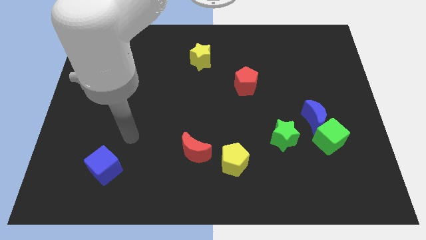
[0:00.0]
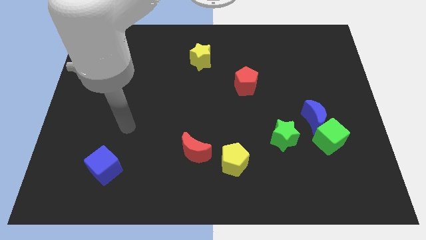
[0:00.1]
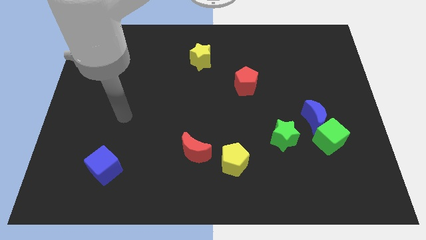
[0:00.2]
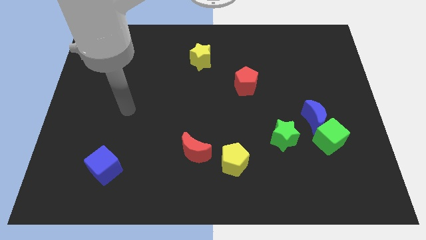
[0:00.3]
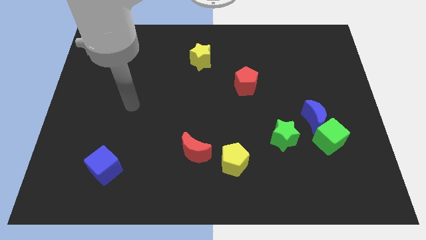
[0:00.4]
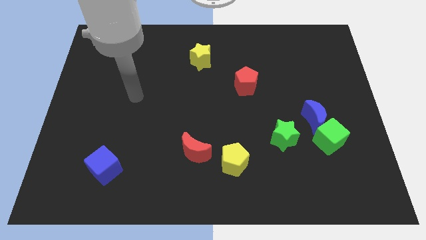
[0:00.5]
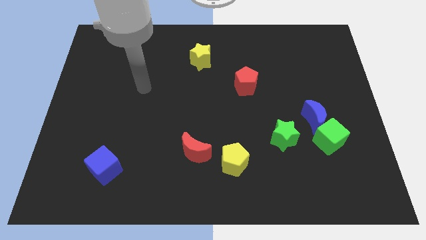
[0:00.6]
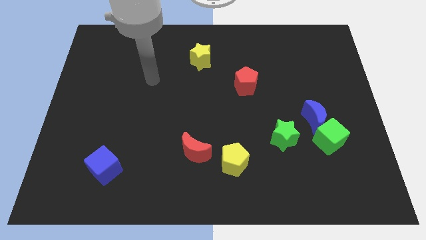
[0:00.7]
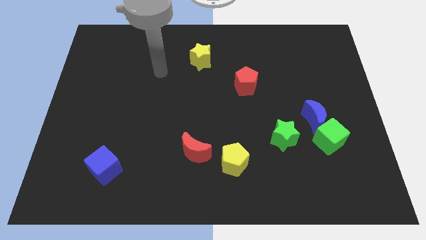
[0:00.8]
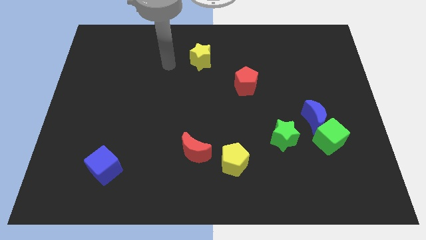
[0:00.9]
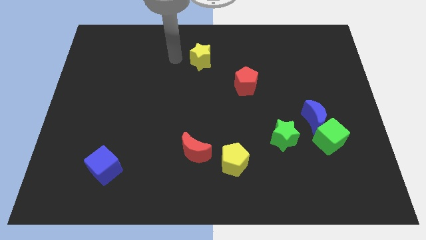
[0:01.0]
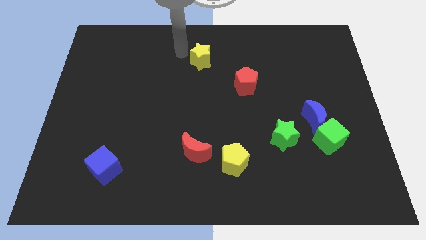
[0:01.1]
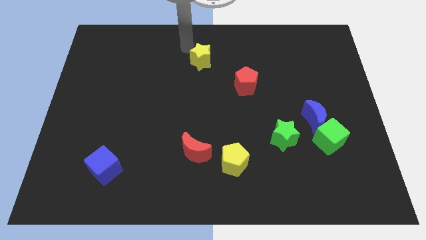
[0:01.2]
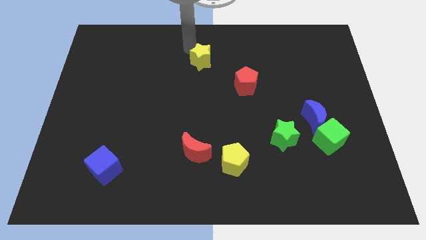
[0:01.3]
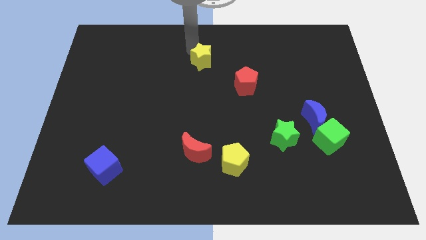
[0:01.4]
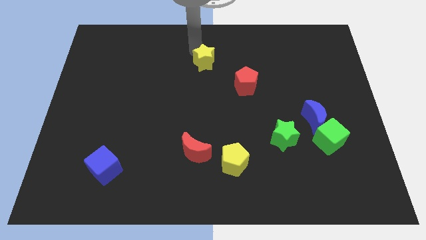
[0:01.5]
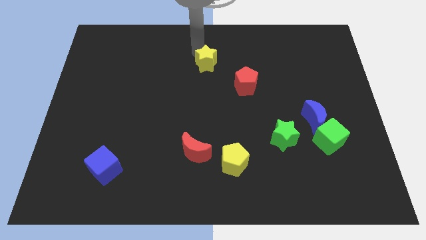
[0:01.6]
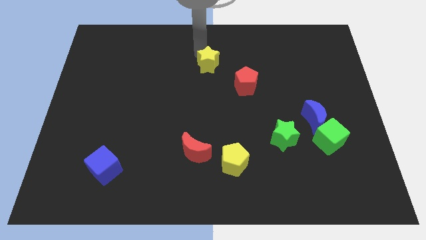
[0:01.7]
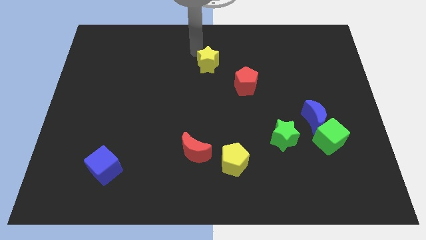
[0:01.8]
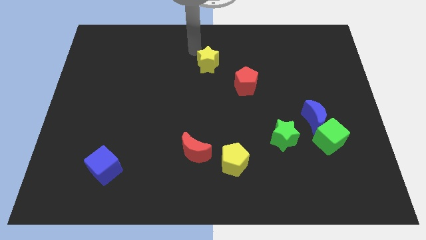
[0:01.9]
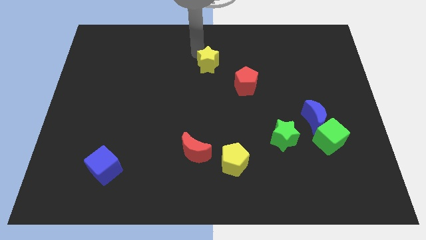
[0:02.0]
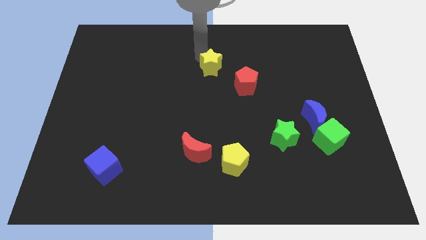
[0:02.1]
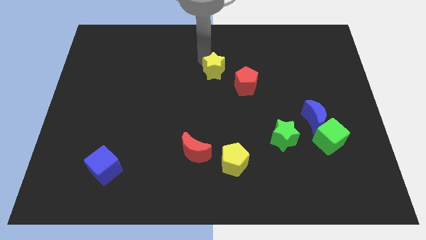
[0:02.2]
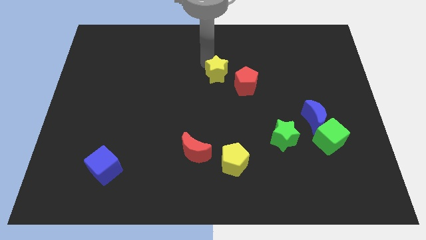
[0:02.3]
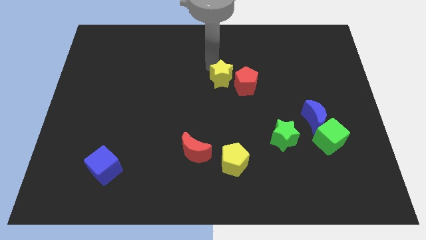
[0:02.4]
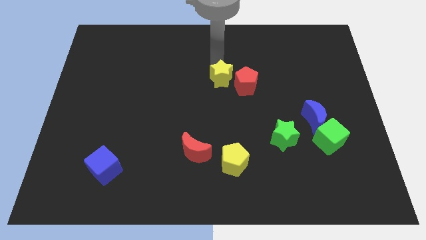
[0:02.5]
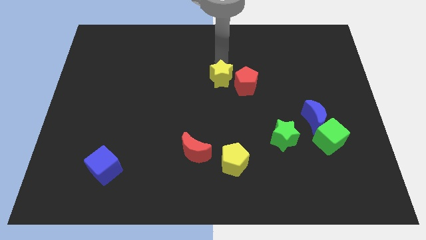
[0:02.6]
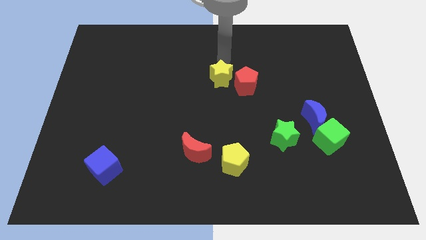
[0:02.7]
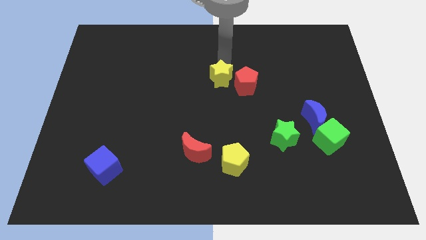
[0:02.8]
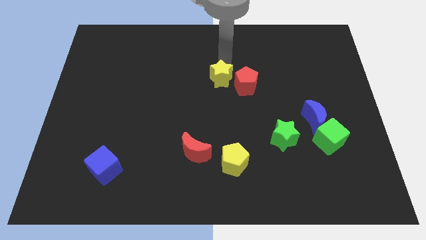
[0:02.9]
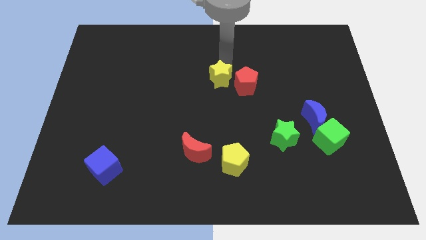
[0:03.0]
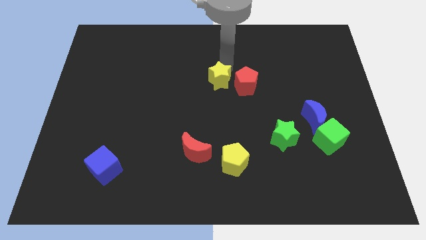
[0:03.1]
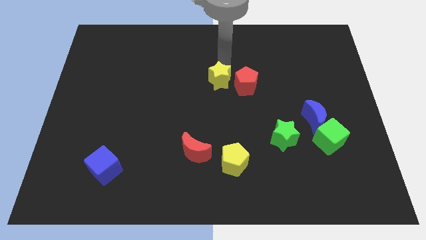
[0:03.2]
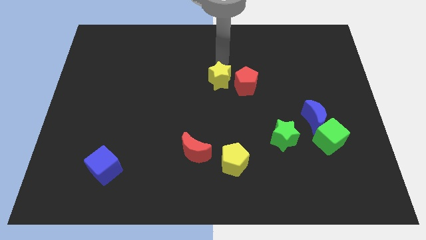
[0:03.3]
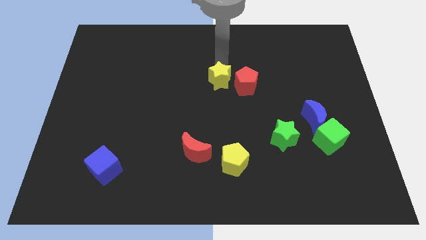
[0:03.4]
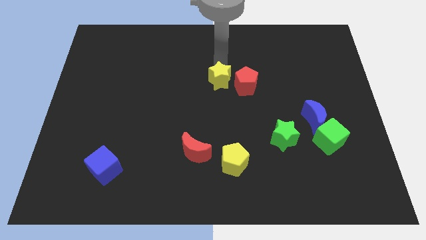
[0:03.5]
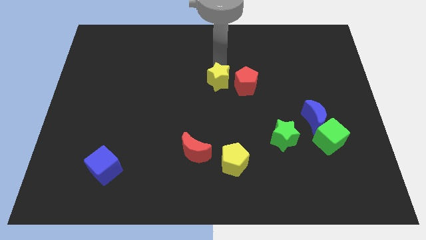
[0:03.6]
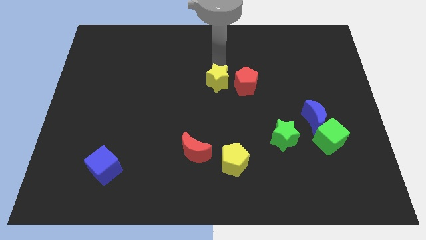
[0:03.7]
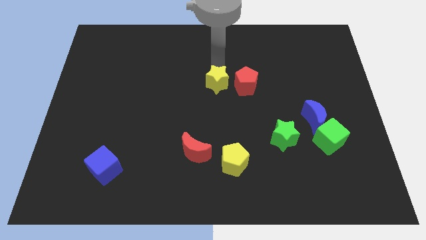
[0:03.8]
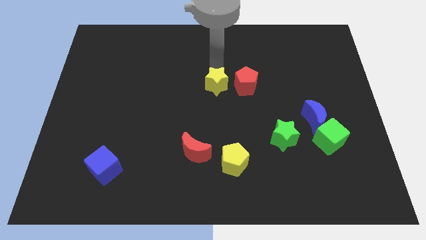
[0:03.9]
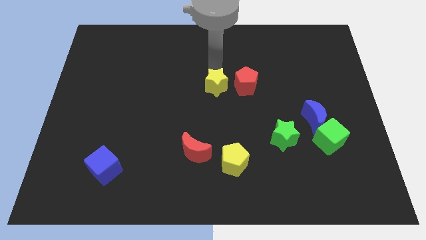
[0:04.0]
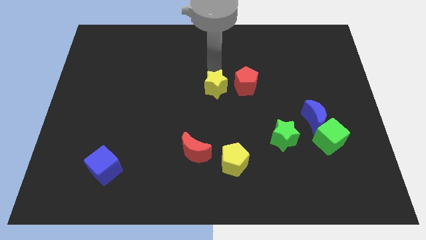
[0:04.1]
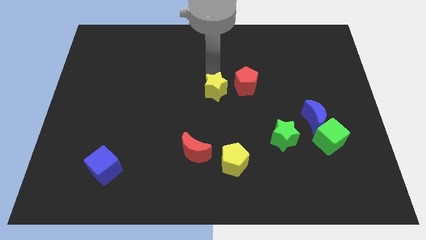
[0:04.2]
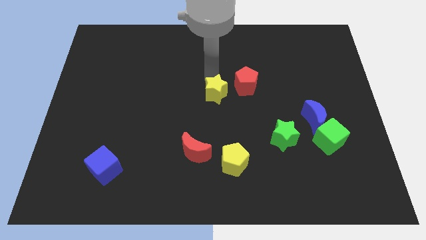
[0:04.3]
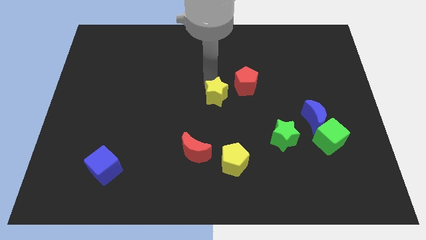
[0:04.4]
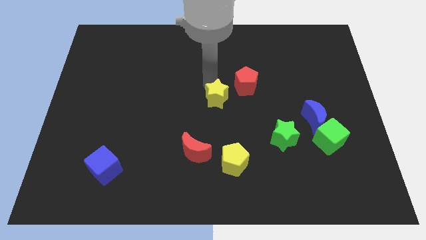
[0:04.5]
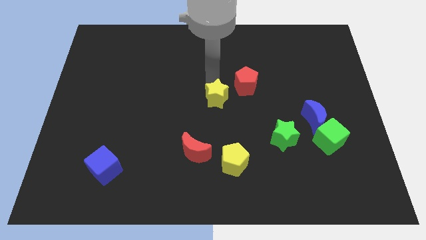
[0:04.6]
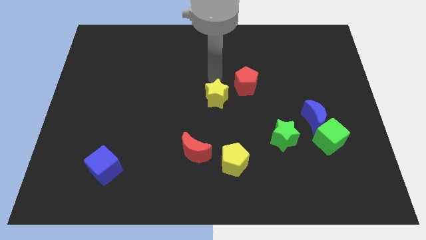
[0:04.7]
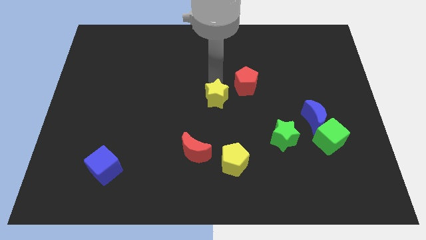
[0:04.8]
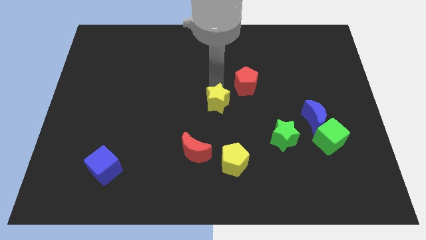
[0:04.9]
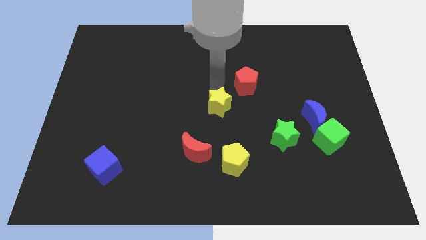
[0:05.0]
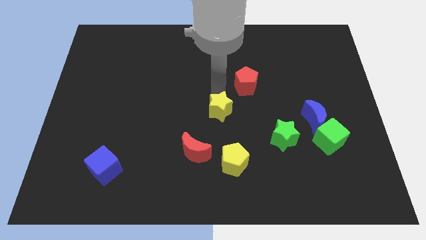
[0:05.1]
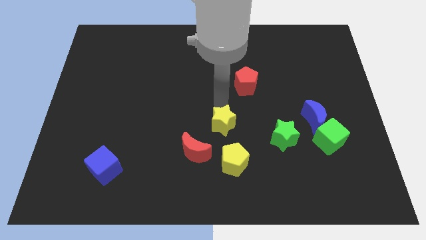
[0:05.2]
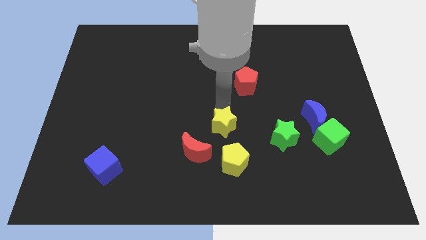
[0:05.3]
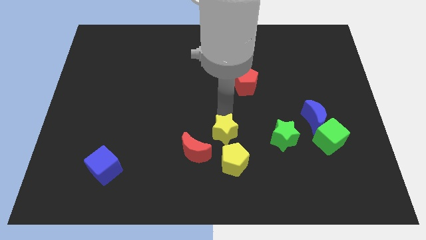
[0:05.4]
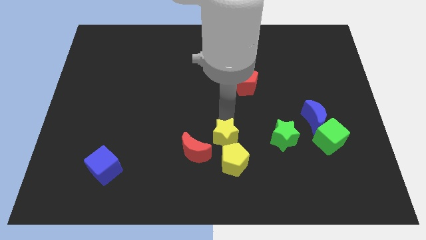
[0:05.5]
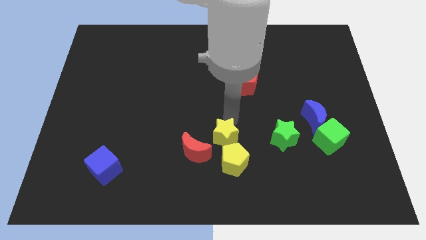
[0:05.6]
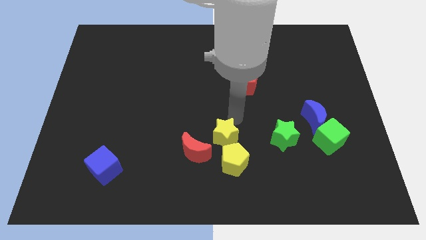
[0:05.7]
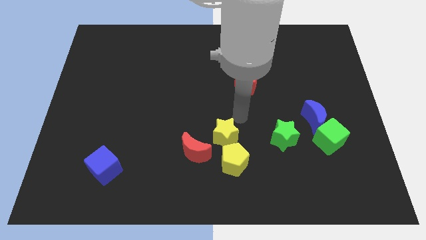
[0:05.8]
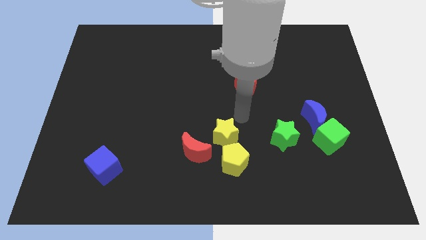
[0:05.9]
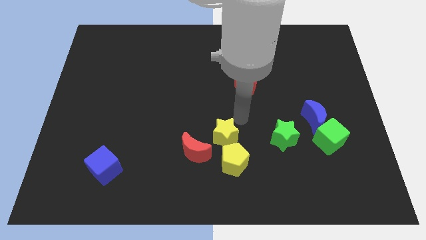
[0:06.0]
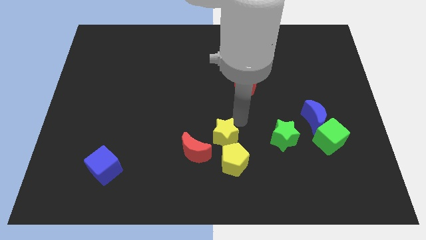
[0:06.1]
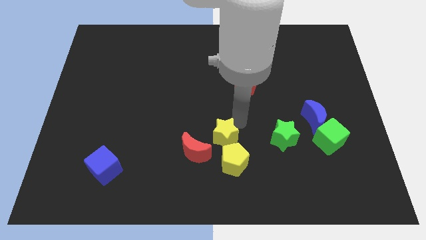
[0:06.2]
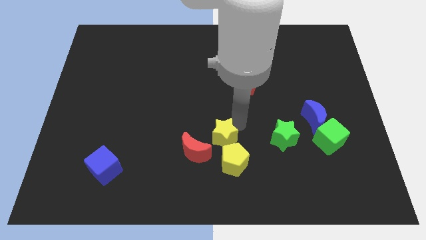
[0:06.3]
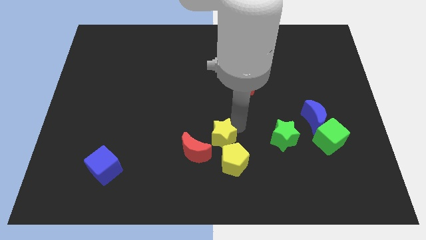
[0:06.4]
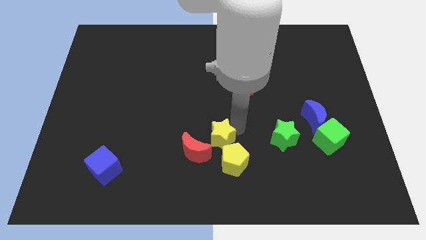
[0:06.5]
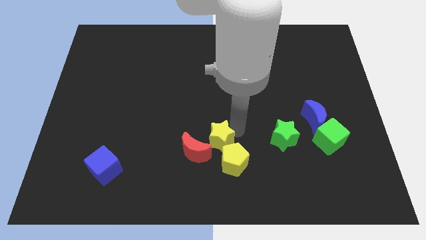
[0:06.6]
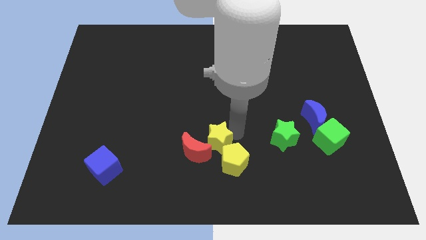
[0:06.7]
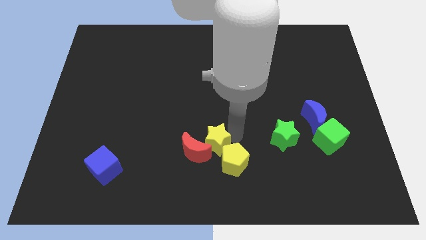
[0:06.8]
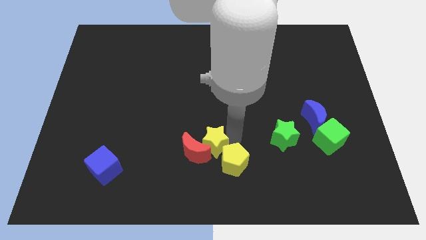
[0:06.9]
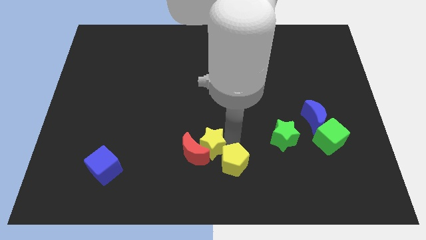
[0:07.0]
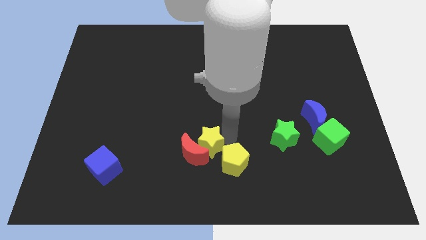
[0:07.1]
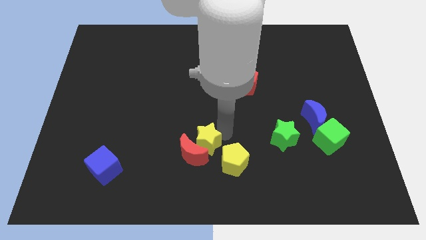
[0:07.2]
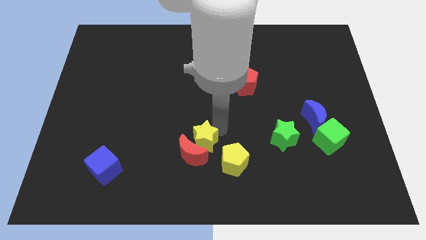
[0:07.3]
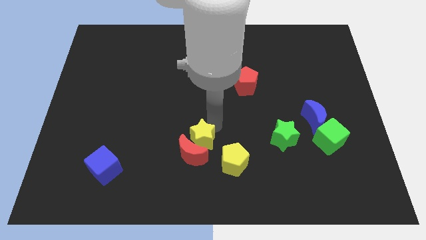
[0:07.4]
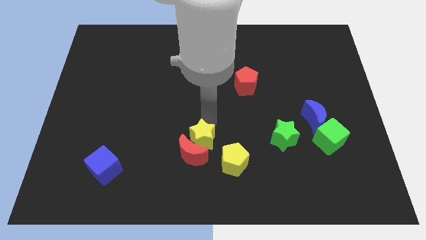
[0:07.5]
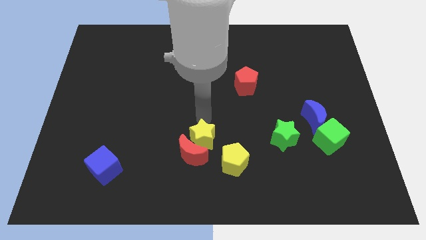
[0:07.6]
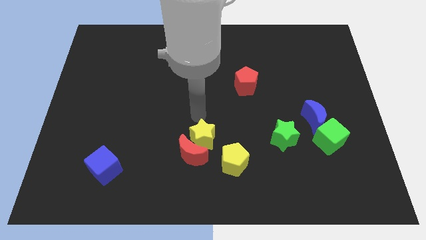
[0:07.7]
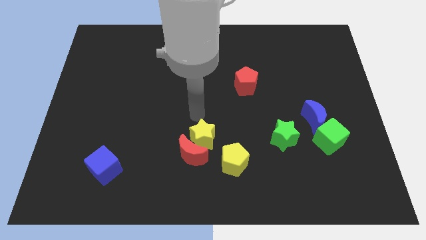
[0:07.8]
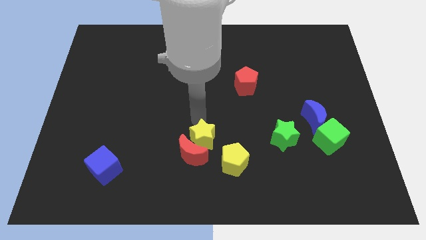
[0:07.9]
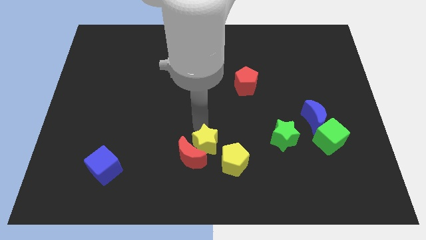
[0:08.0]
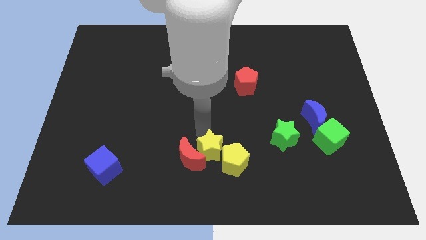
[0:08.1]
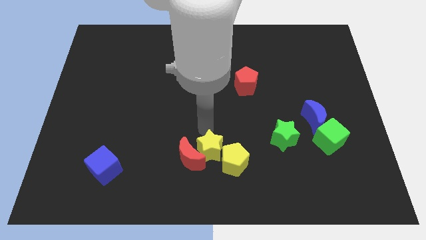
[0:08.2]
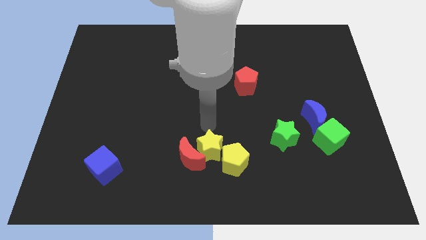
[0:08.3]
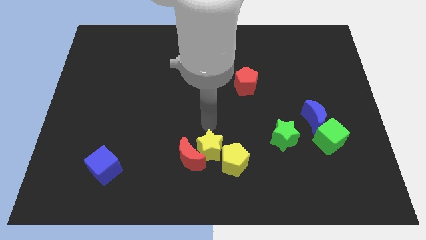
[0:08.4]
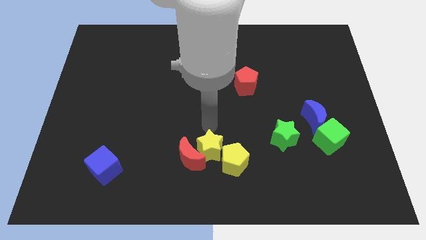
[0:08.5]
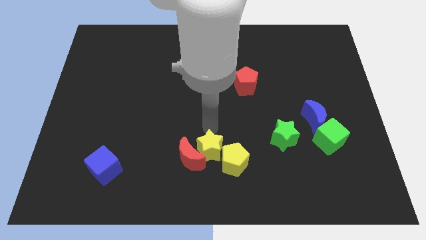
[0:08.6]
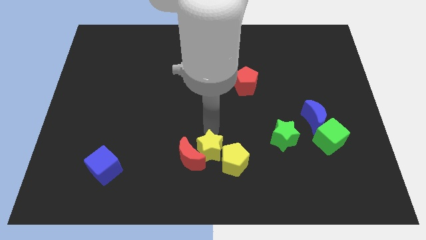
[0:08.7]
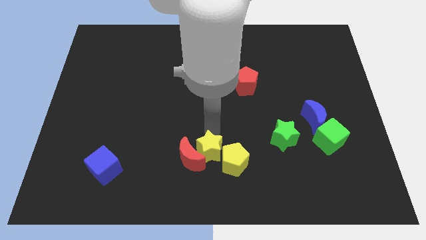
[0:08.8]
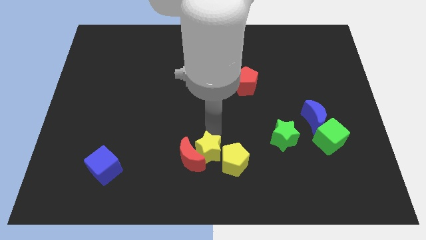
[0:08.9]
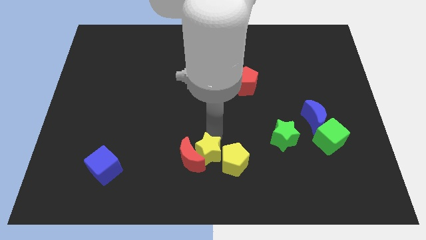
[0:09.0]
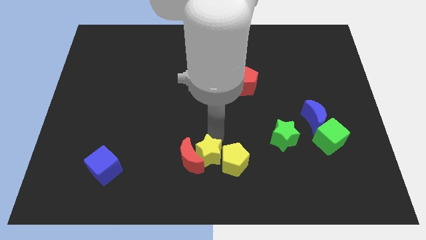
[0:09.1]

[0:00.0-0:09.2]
slide the yellow star to the bottom side
